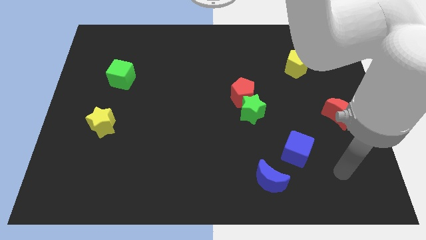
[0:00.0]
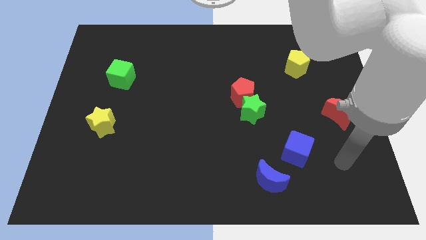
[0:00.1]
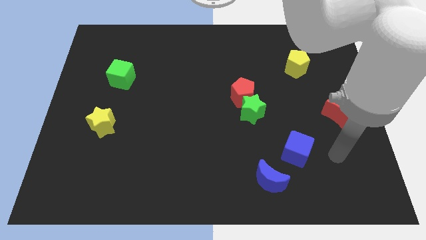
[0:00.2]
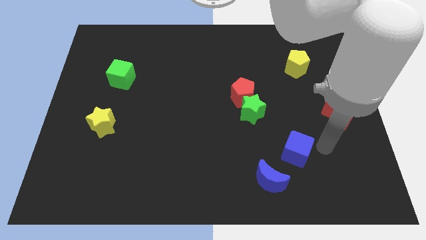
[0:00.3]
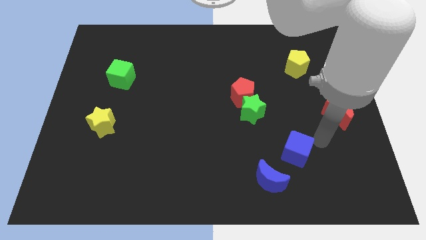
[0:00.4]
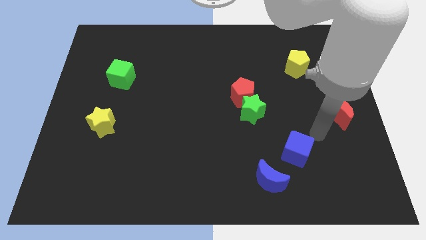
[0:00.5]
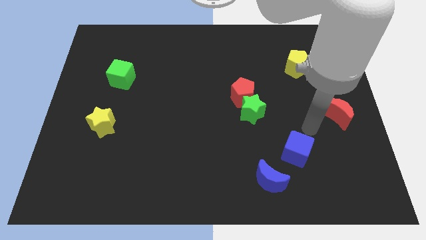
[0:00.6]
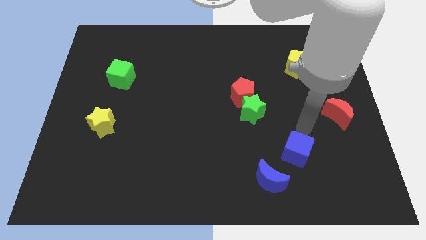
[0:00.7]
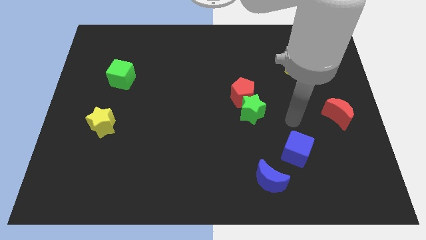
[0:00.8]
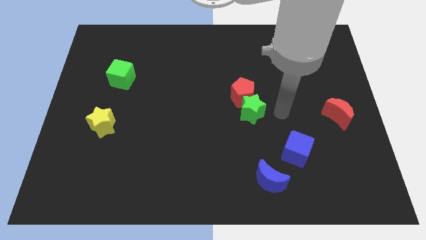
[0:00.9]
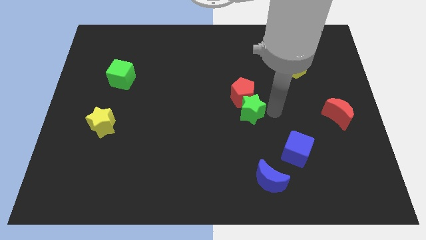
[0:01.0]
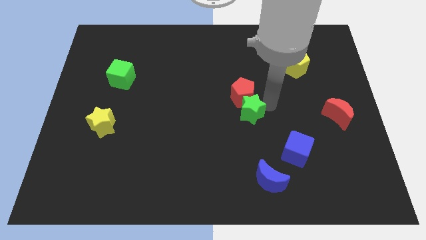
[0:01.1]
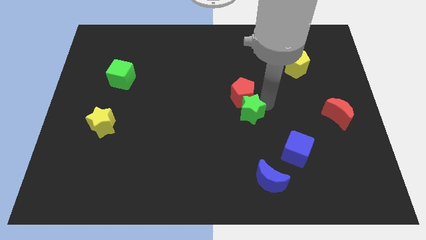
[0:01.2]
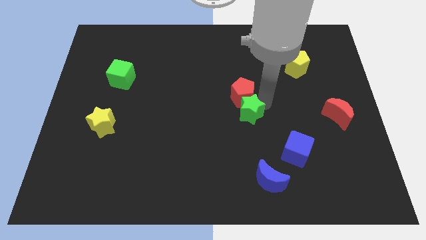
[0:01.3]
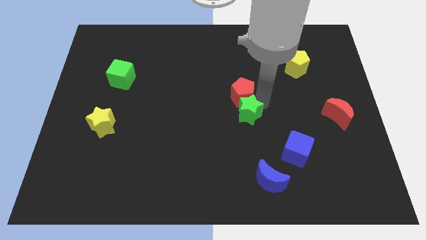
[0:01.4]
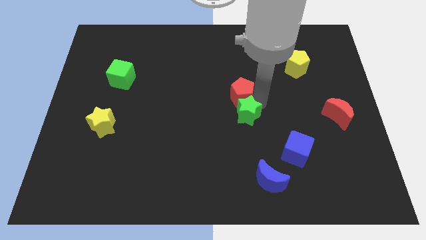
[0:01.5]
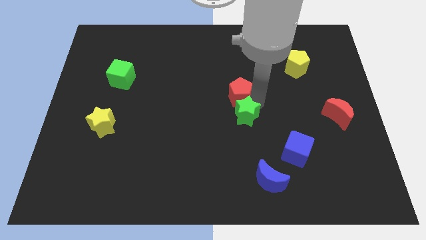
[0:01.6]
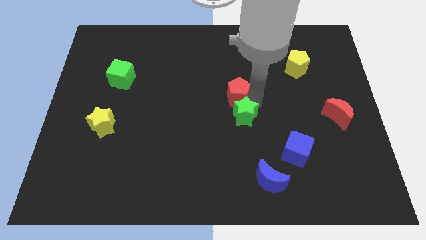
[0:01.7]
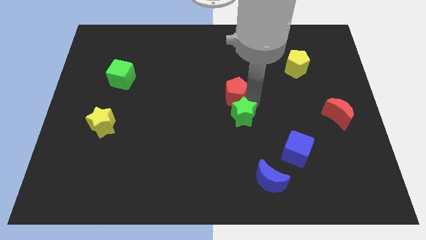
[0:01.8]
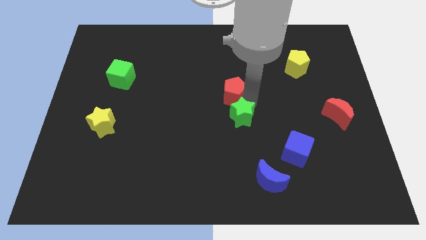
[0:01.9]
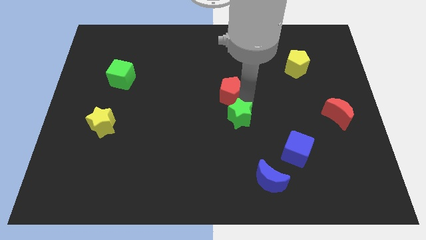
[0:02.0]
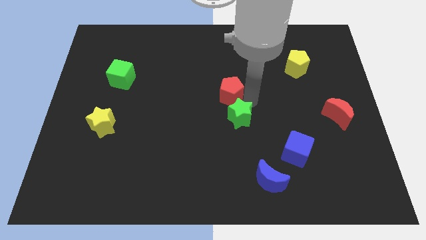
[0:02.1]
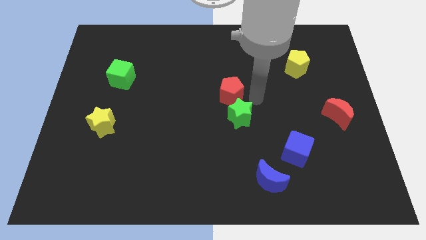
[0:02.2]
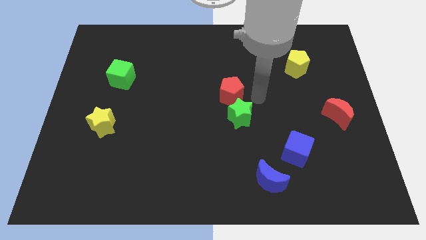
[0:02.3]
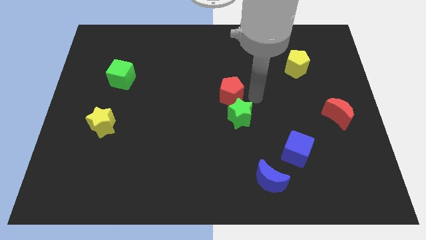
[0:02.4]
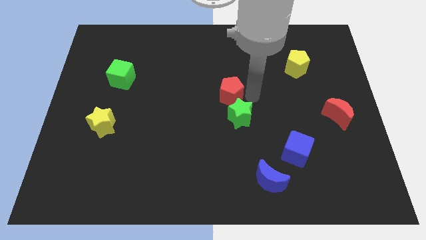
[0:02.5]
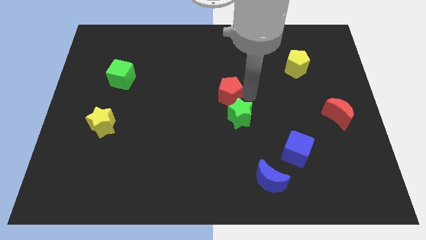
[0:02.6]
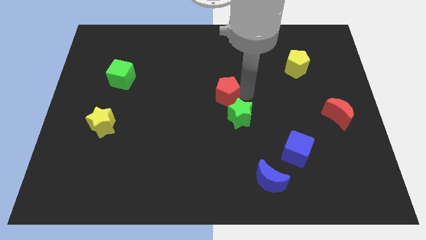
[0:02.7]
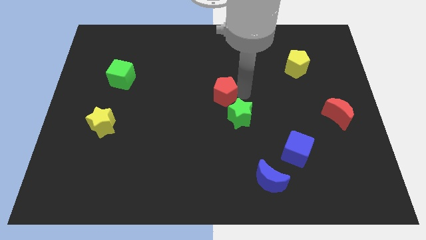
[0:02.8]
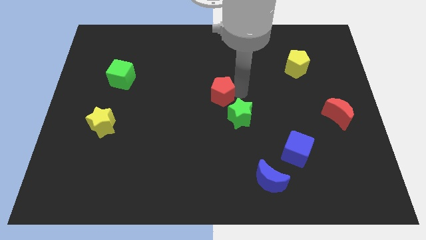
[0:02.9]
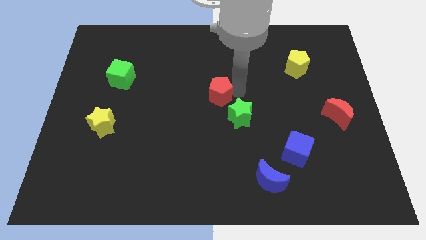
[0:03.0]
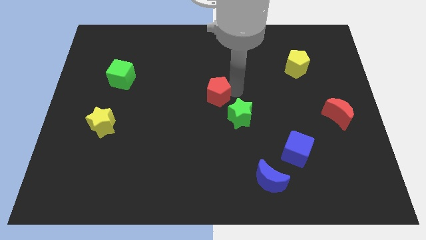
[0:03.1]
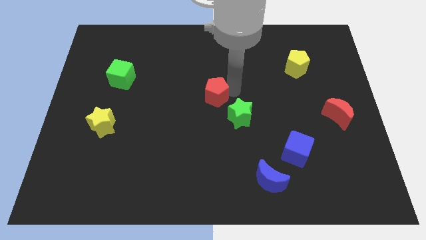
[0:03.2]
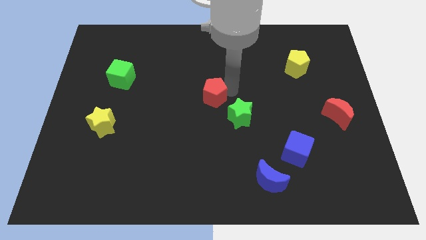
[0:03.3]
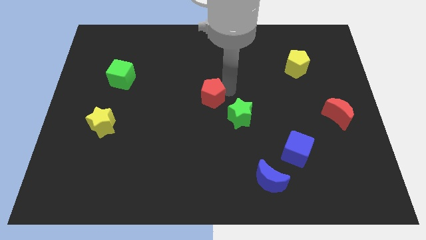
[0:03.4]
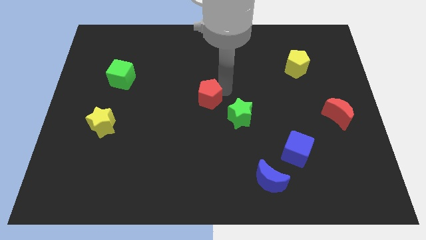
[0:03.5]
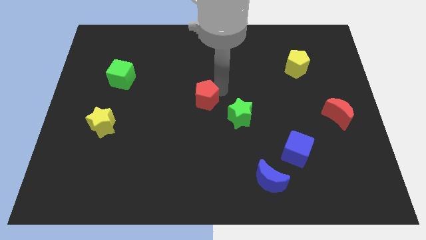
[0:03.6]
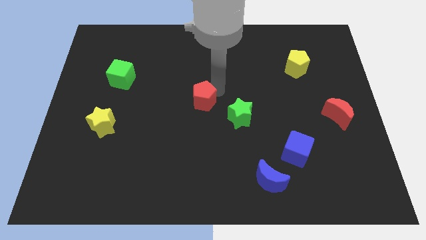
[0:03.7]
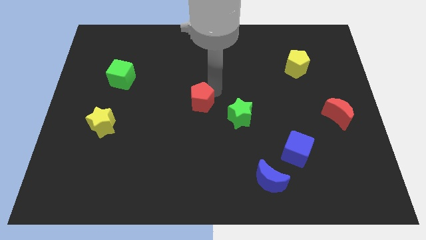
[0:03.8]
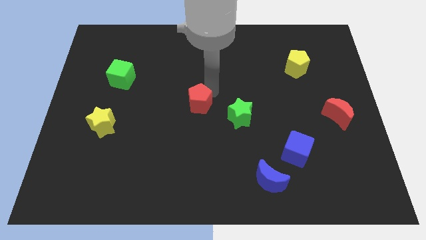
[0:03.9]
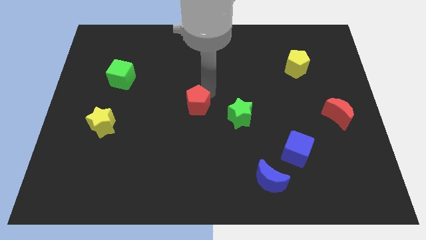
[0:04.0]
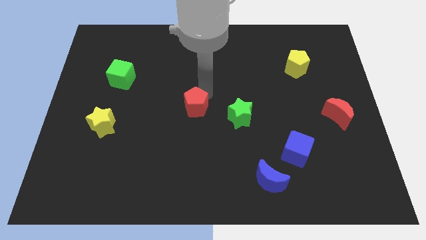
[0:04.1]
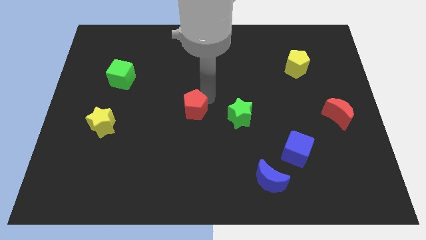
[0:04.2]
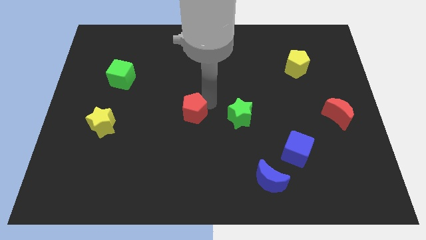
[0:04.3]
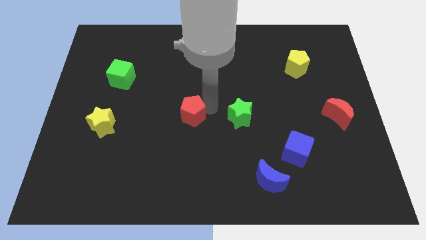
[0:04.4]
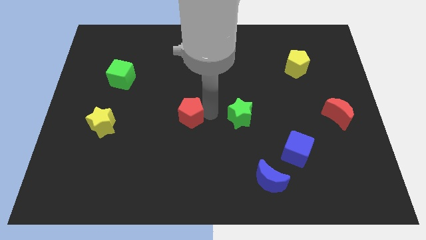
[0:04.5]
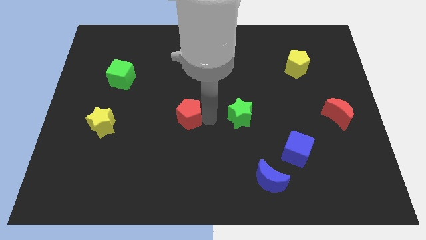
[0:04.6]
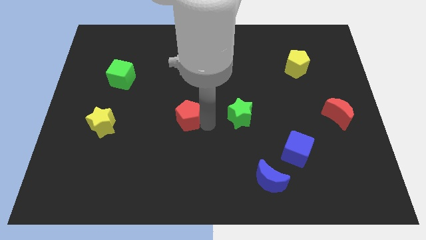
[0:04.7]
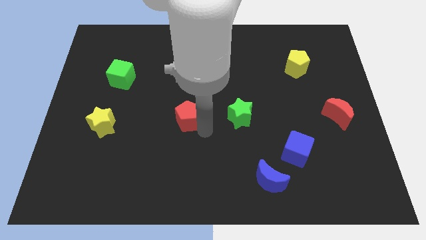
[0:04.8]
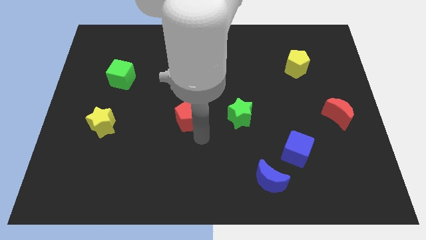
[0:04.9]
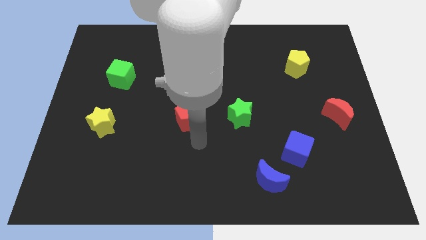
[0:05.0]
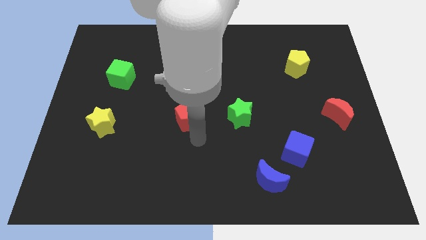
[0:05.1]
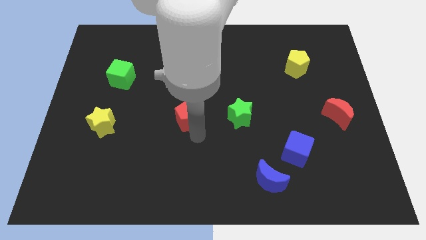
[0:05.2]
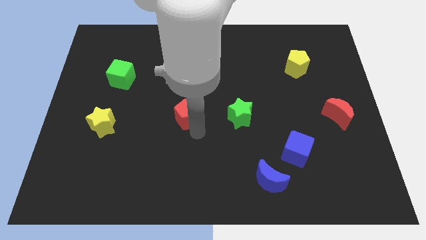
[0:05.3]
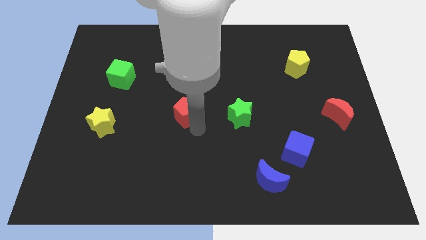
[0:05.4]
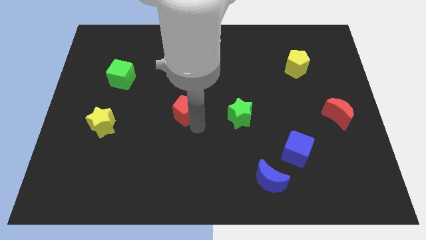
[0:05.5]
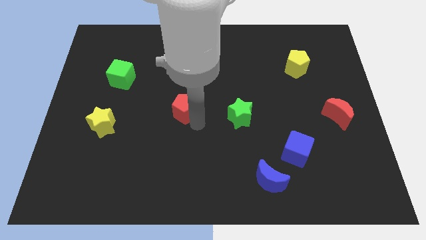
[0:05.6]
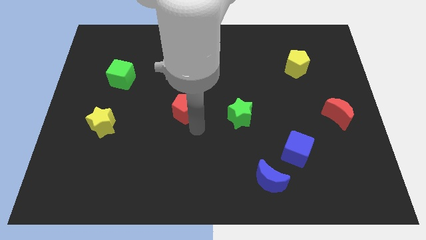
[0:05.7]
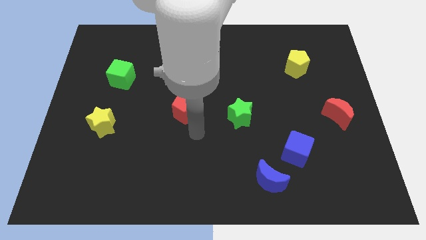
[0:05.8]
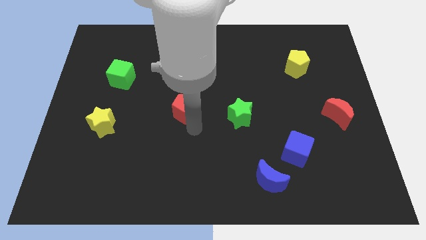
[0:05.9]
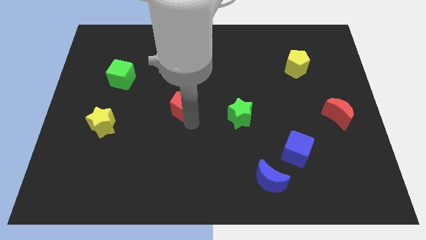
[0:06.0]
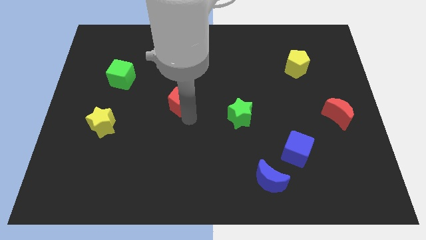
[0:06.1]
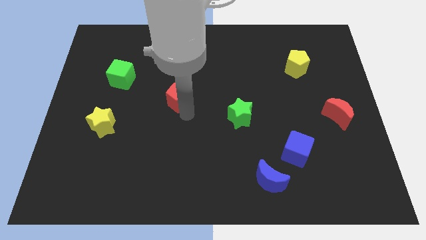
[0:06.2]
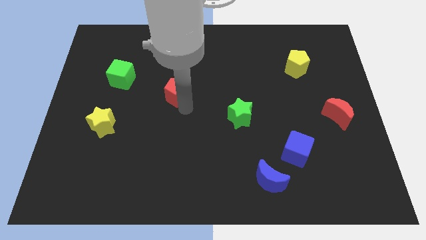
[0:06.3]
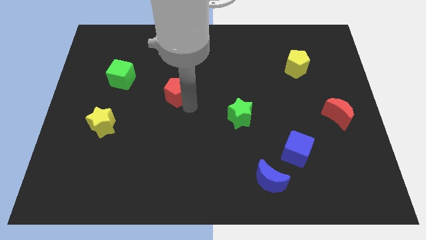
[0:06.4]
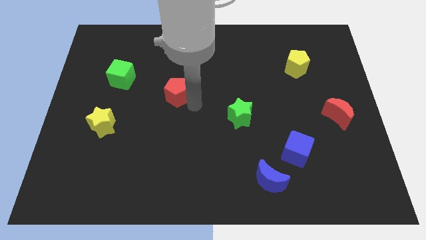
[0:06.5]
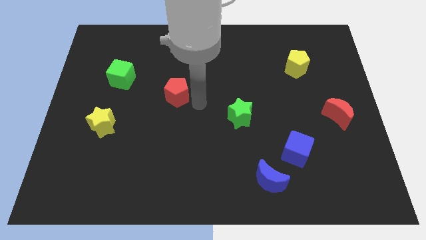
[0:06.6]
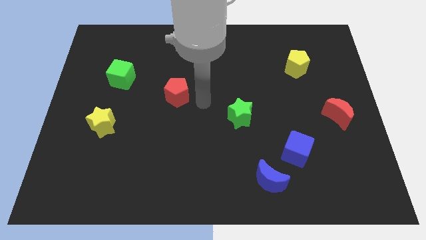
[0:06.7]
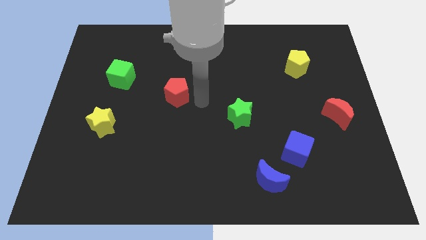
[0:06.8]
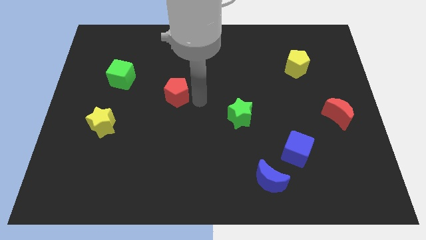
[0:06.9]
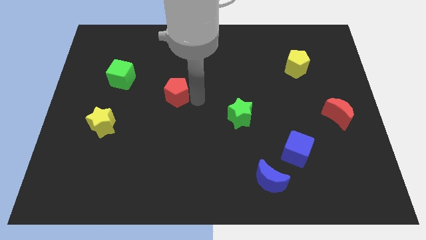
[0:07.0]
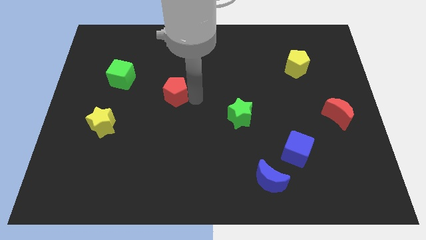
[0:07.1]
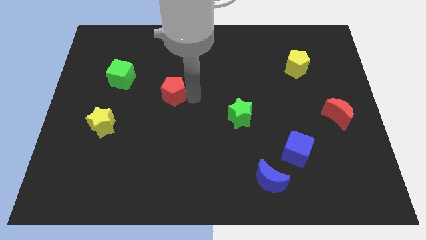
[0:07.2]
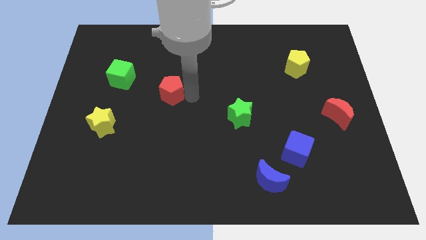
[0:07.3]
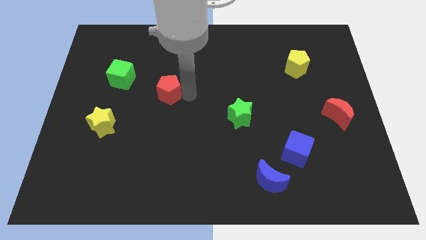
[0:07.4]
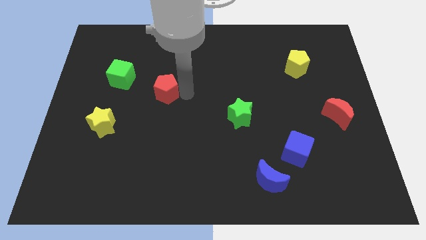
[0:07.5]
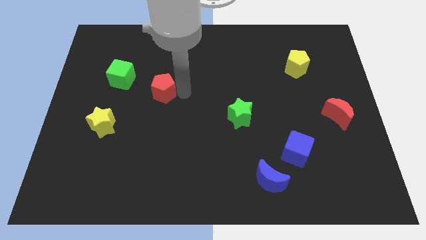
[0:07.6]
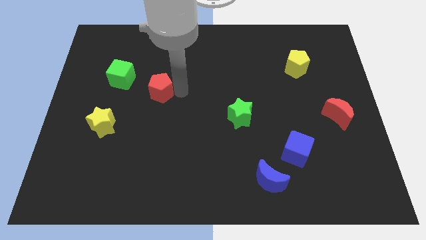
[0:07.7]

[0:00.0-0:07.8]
move the red pentagon left
